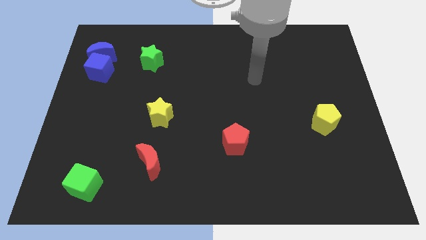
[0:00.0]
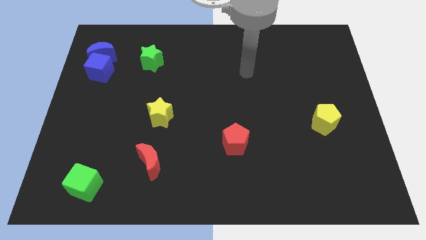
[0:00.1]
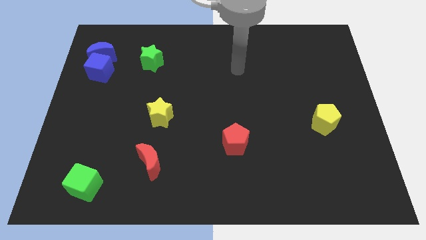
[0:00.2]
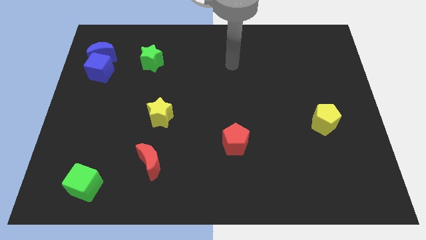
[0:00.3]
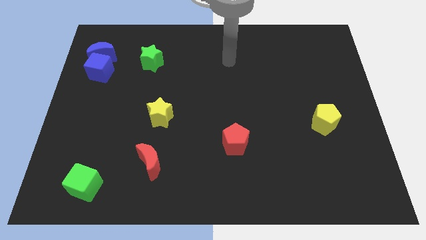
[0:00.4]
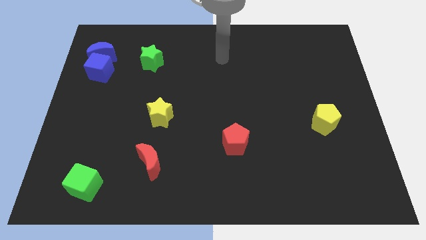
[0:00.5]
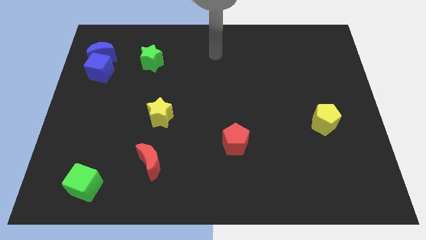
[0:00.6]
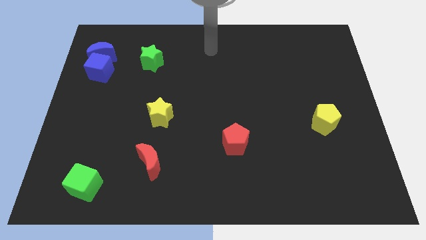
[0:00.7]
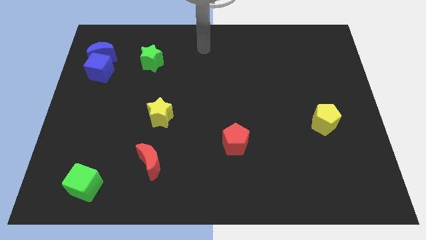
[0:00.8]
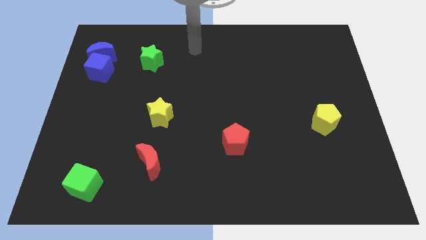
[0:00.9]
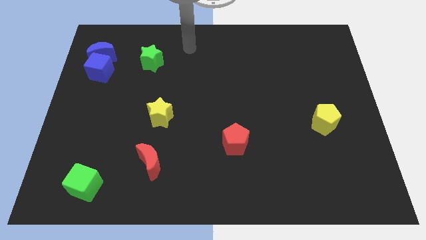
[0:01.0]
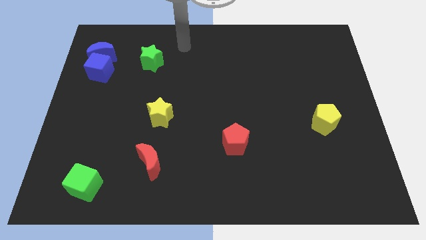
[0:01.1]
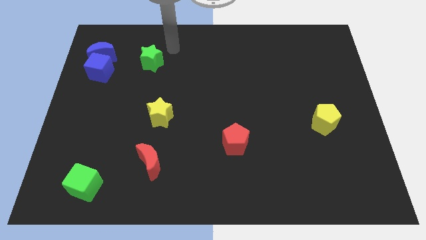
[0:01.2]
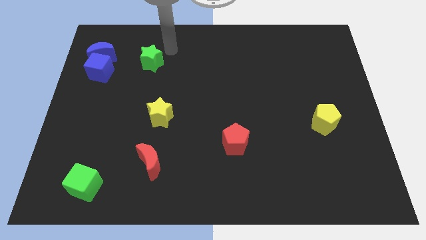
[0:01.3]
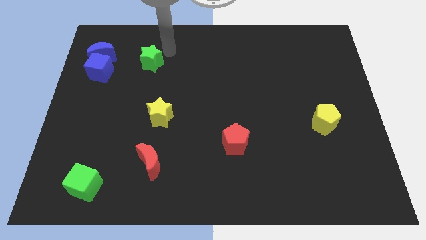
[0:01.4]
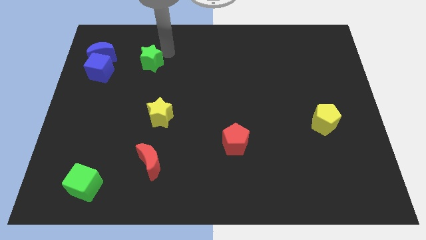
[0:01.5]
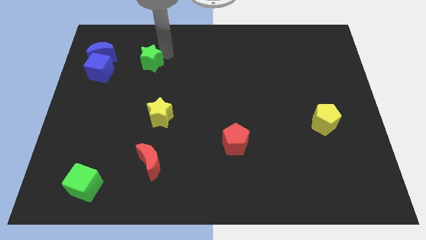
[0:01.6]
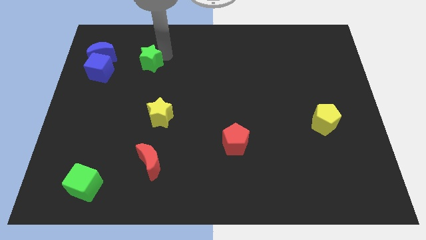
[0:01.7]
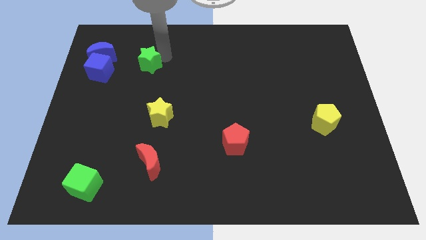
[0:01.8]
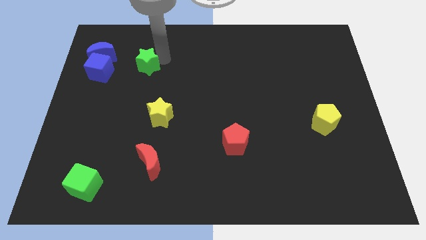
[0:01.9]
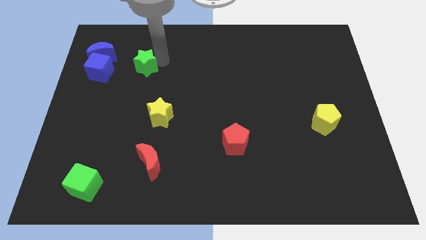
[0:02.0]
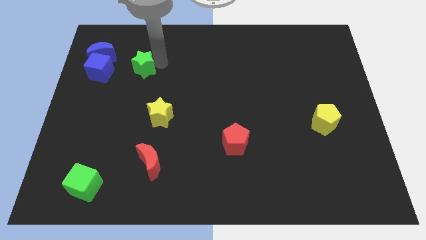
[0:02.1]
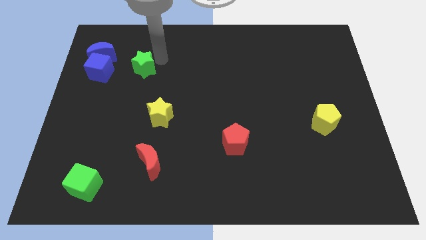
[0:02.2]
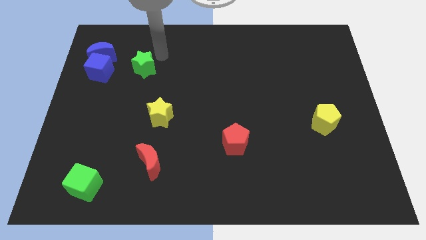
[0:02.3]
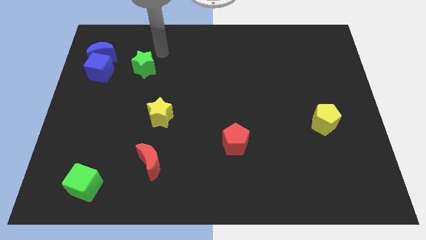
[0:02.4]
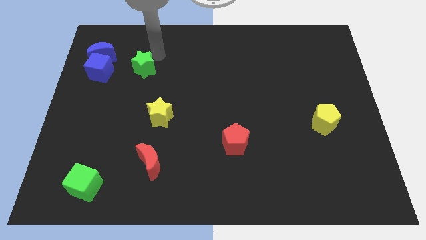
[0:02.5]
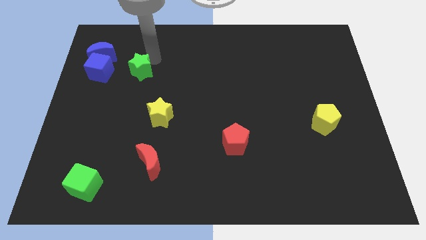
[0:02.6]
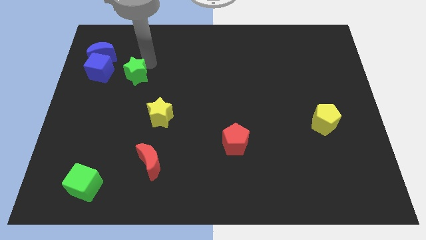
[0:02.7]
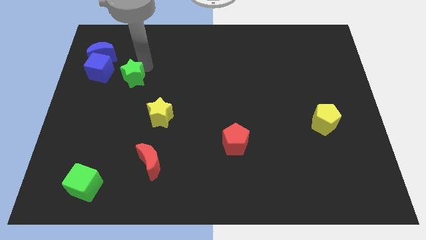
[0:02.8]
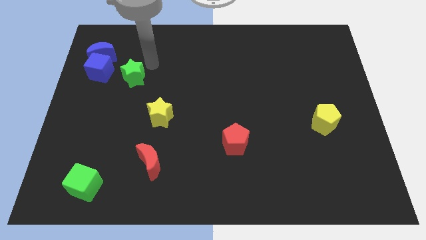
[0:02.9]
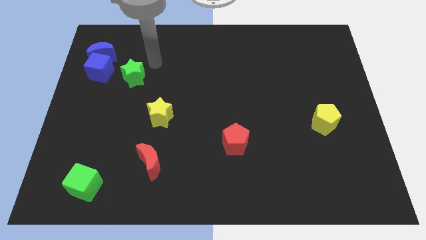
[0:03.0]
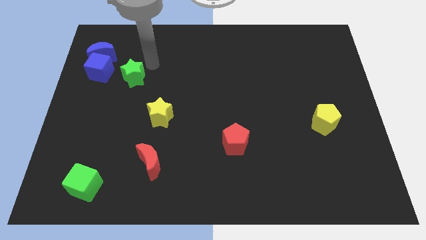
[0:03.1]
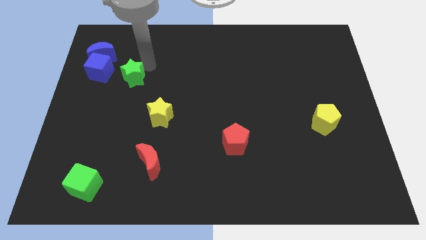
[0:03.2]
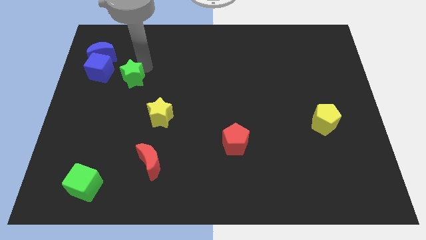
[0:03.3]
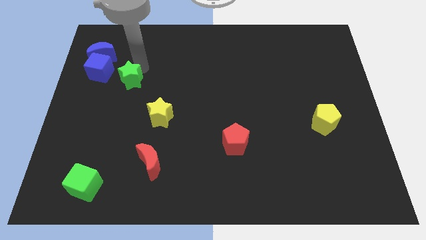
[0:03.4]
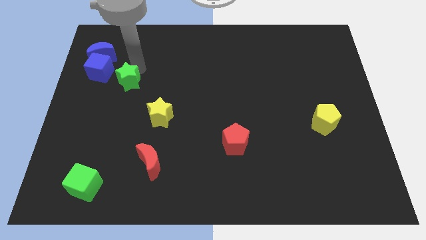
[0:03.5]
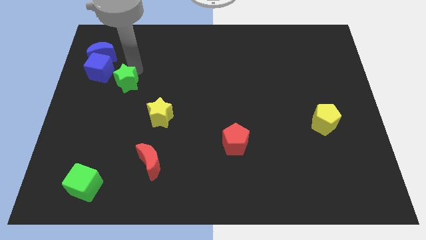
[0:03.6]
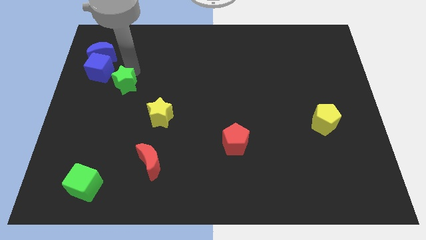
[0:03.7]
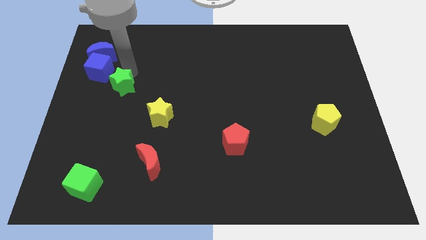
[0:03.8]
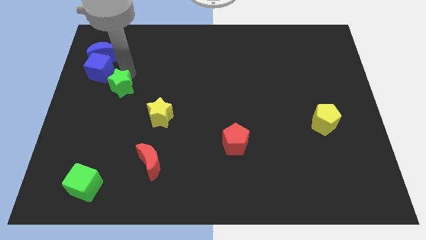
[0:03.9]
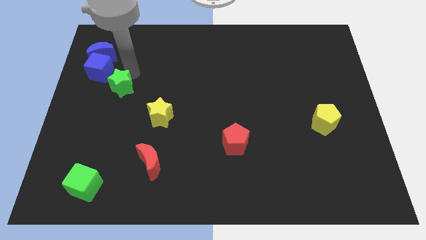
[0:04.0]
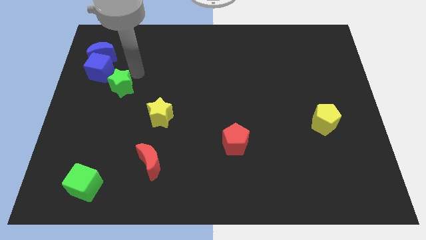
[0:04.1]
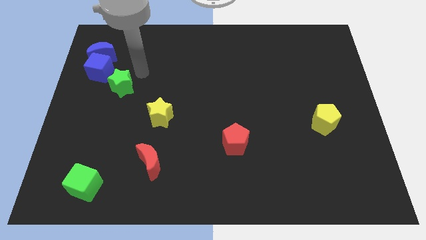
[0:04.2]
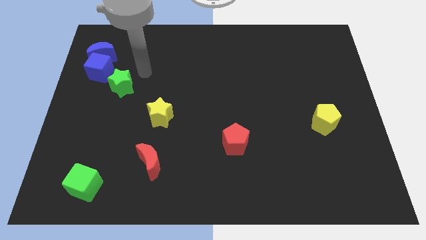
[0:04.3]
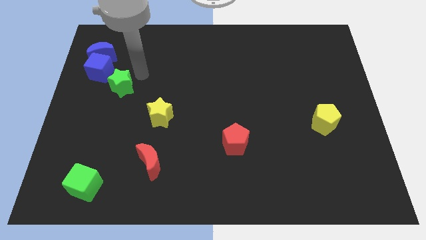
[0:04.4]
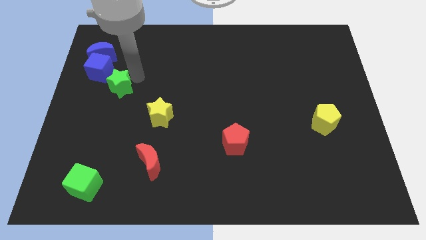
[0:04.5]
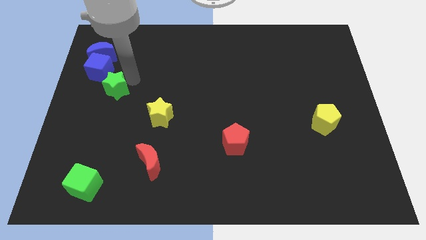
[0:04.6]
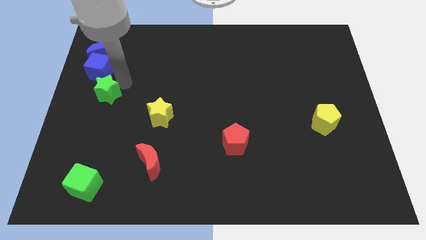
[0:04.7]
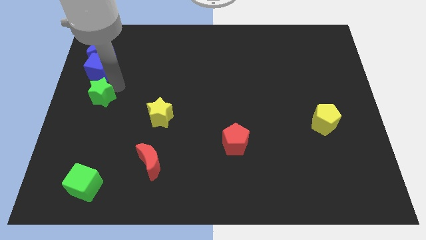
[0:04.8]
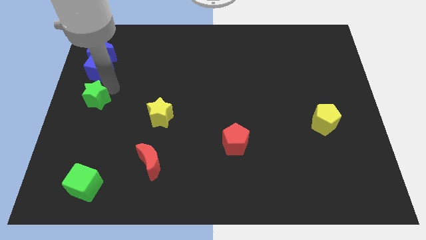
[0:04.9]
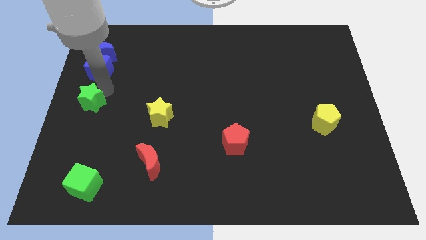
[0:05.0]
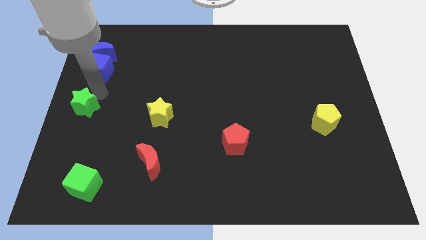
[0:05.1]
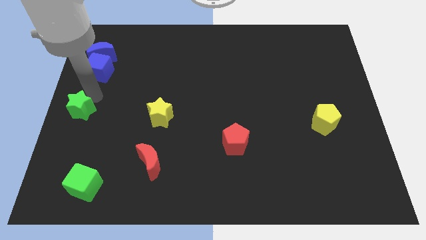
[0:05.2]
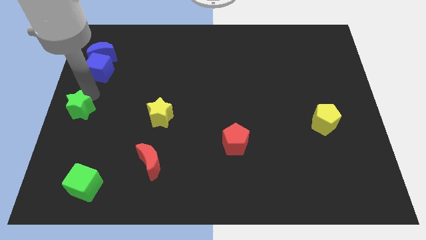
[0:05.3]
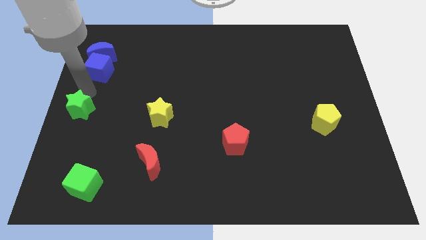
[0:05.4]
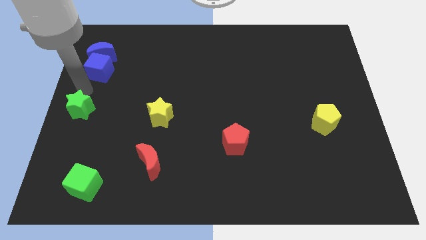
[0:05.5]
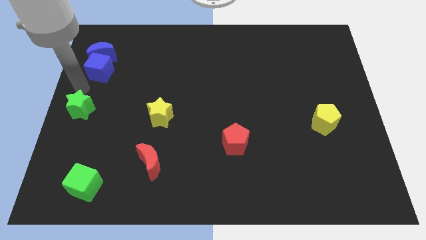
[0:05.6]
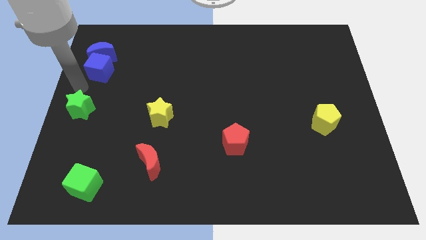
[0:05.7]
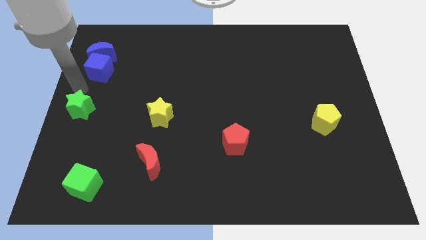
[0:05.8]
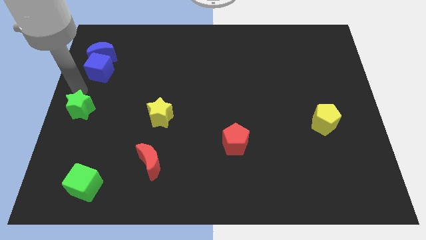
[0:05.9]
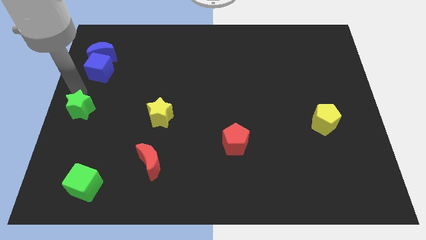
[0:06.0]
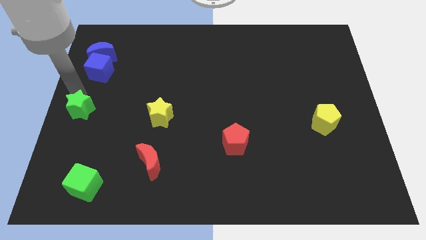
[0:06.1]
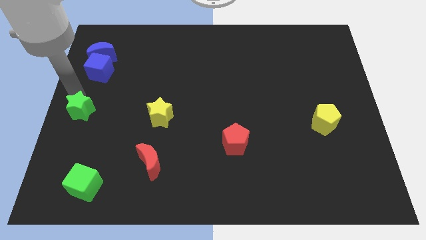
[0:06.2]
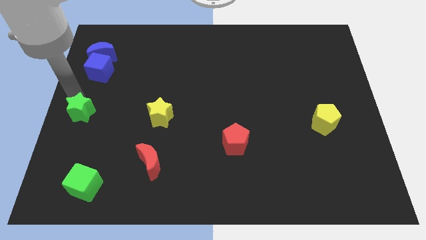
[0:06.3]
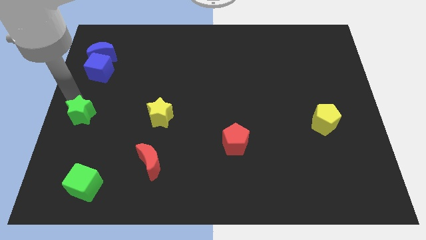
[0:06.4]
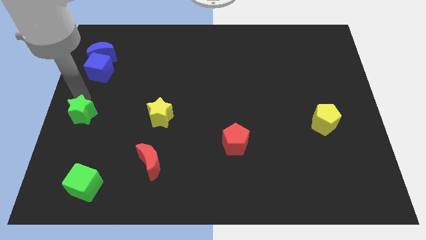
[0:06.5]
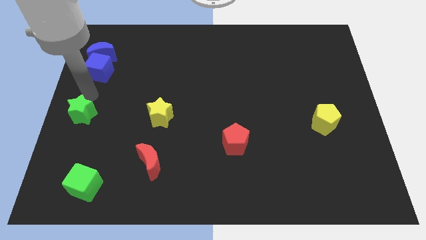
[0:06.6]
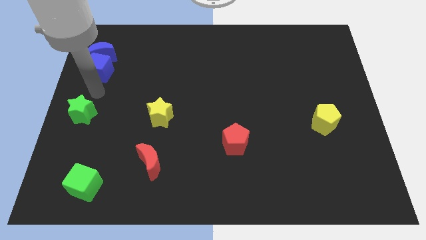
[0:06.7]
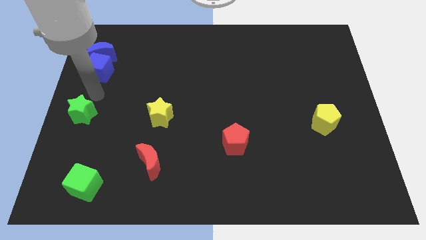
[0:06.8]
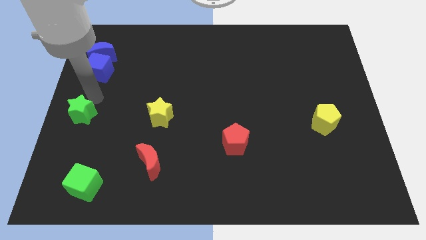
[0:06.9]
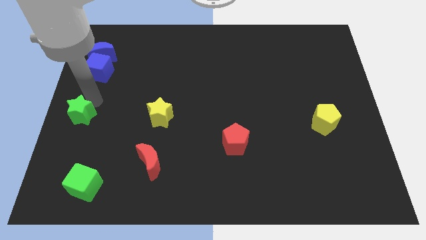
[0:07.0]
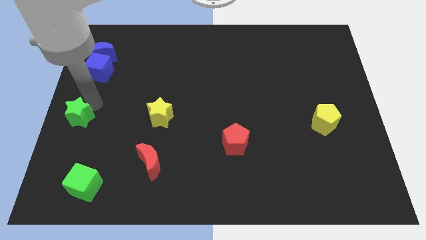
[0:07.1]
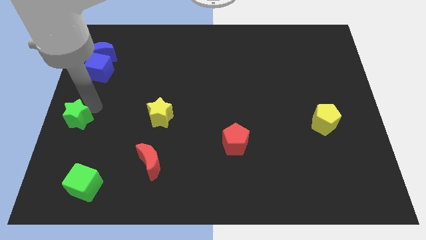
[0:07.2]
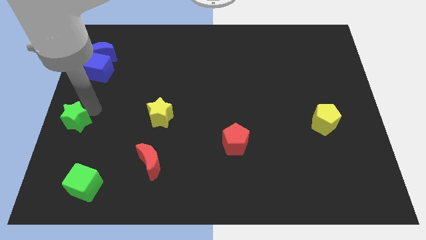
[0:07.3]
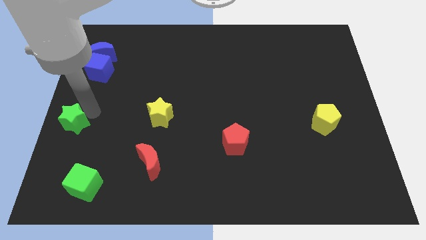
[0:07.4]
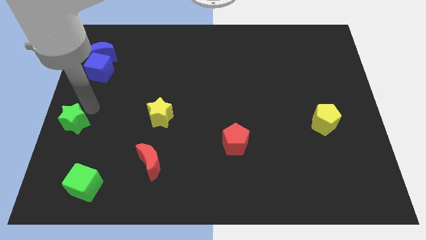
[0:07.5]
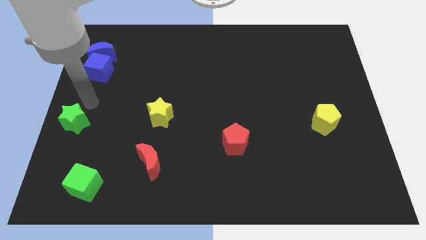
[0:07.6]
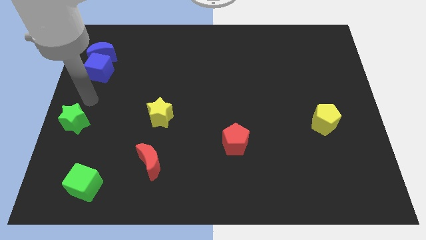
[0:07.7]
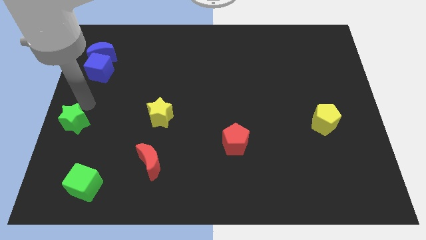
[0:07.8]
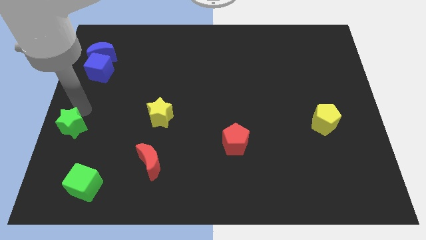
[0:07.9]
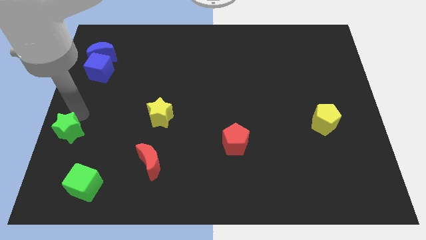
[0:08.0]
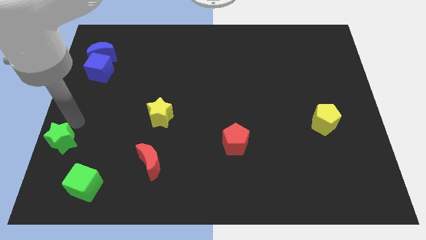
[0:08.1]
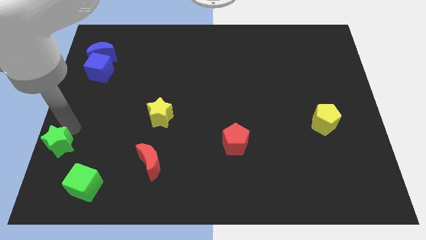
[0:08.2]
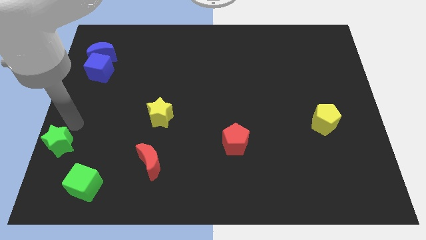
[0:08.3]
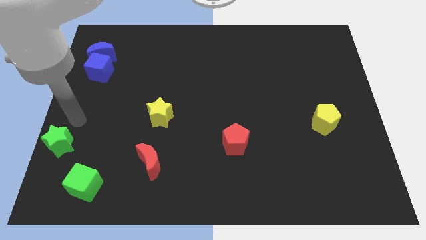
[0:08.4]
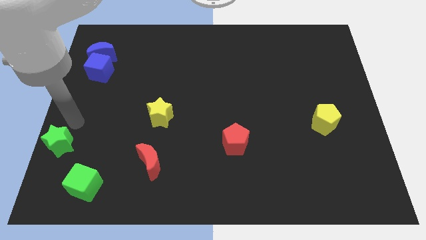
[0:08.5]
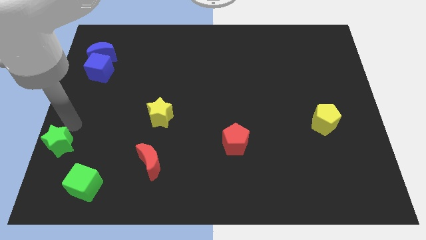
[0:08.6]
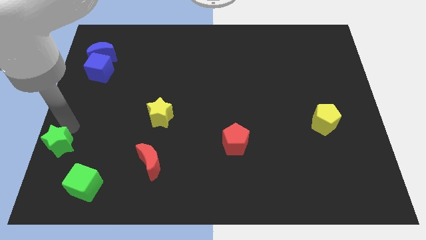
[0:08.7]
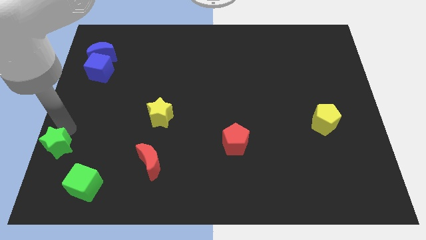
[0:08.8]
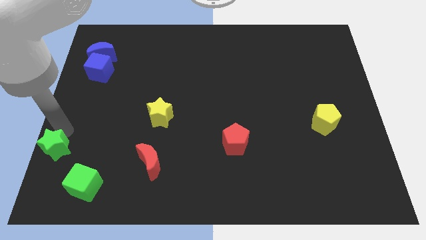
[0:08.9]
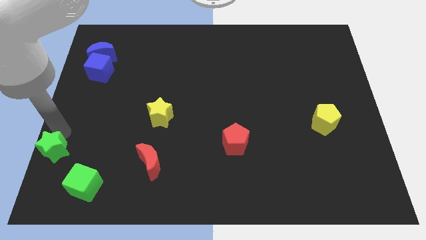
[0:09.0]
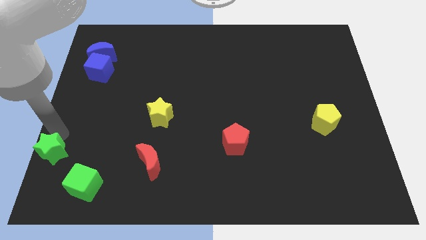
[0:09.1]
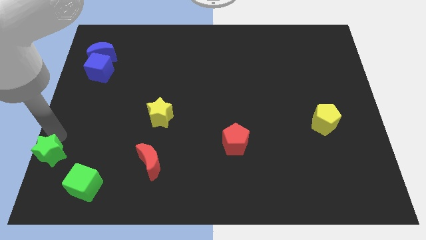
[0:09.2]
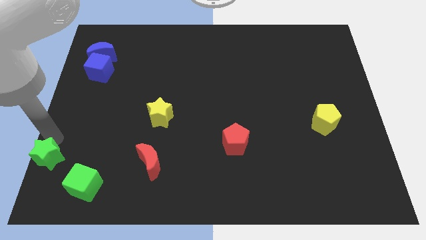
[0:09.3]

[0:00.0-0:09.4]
move the green star to the bottom left of the board
